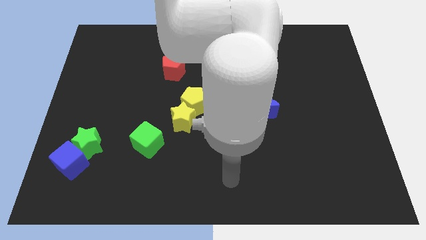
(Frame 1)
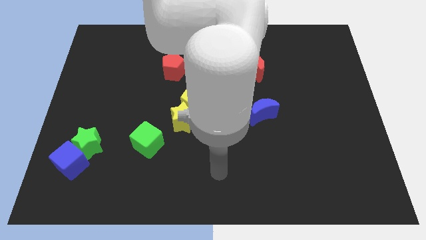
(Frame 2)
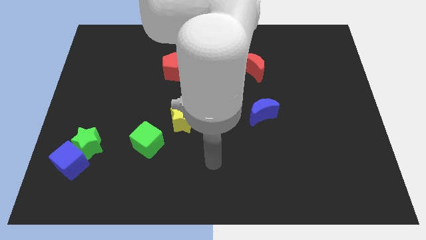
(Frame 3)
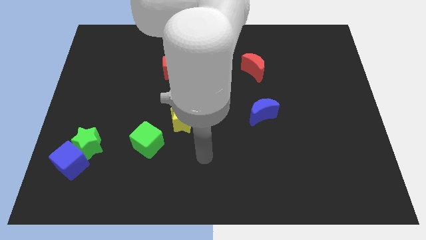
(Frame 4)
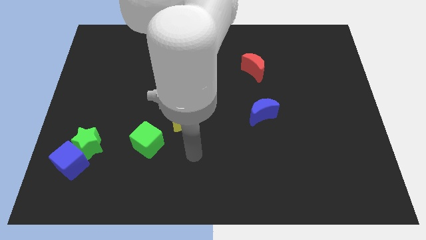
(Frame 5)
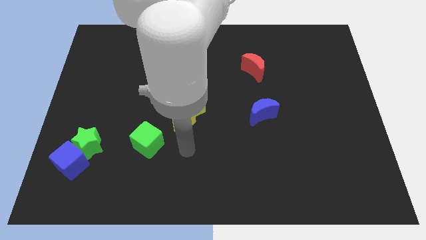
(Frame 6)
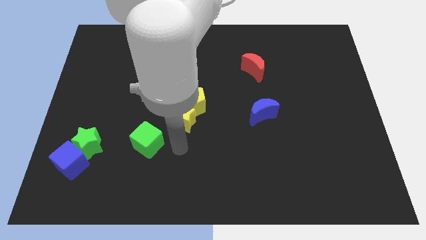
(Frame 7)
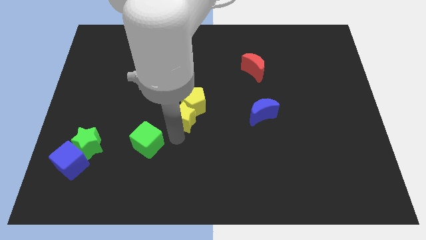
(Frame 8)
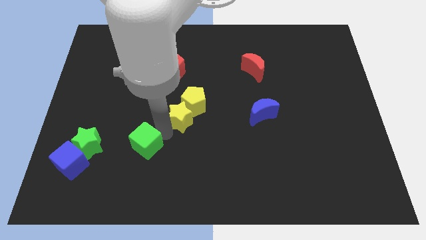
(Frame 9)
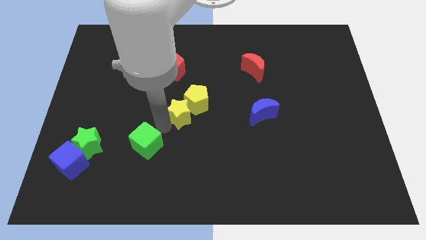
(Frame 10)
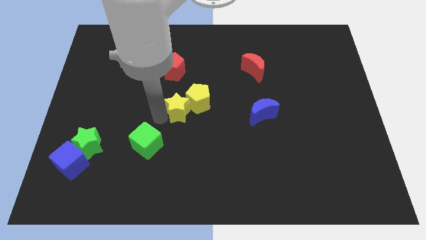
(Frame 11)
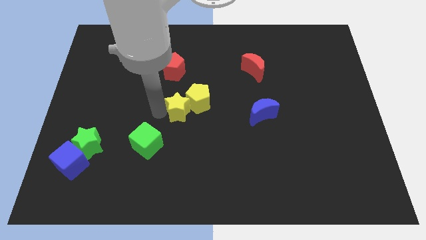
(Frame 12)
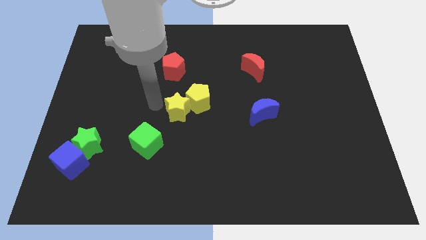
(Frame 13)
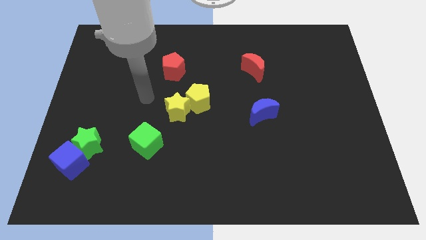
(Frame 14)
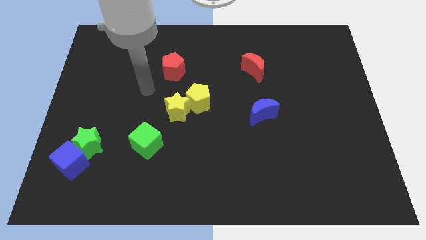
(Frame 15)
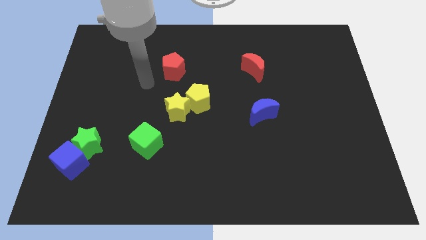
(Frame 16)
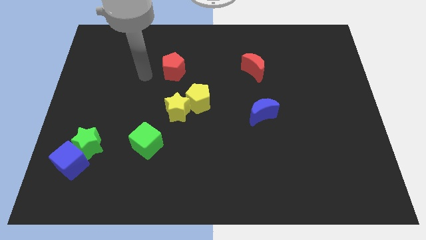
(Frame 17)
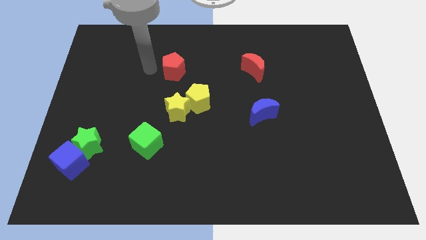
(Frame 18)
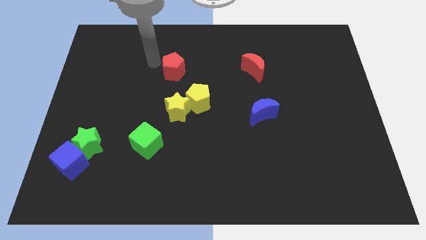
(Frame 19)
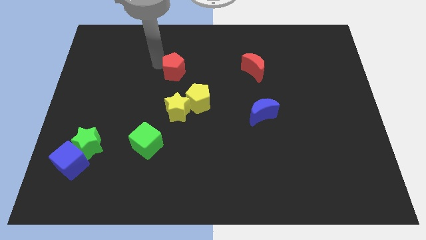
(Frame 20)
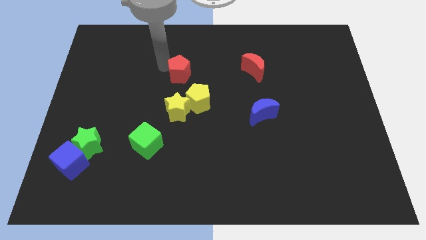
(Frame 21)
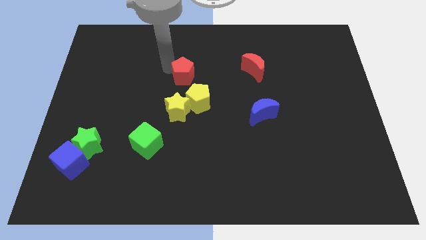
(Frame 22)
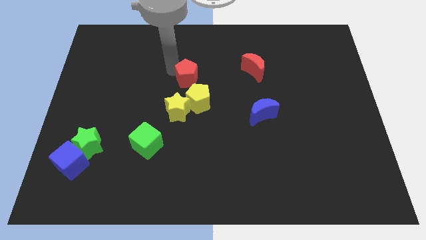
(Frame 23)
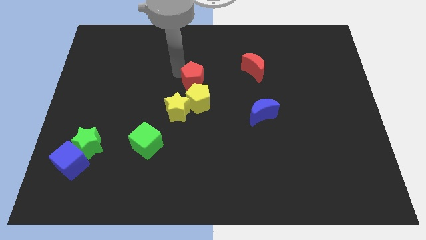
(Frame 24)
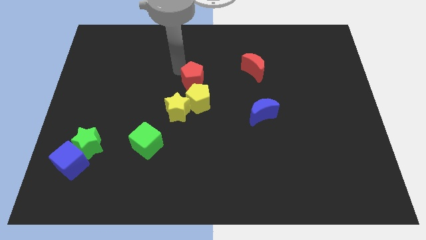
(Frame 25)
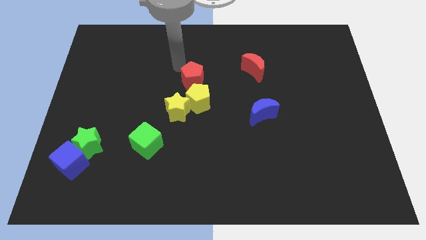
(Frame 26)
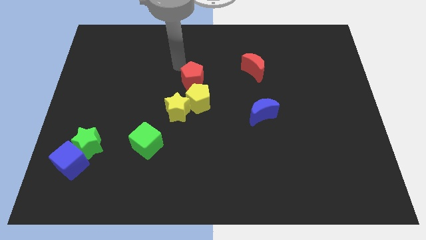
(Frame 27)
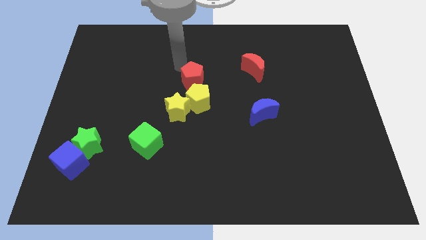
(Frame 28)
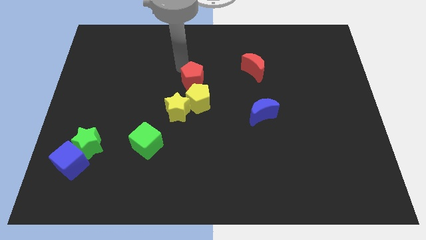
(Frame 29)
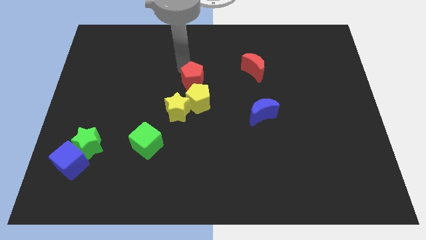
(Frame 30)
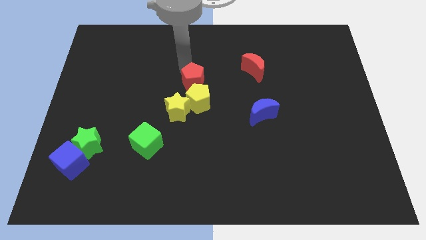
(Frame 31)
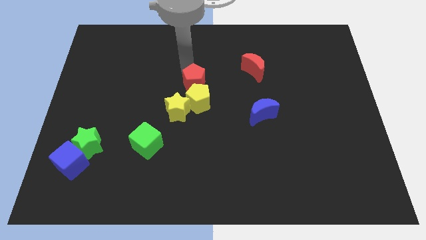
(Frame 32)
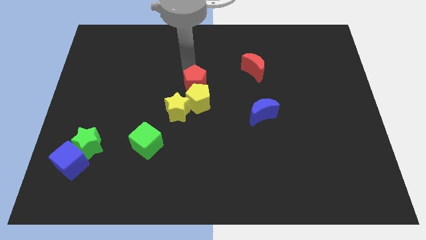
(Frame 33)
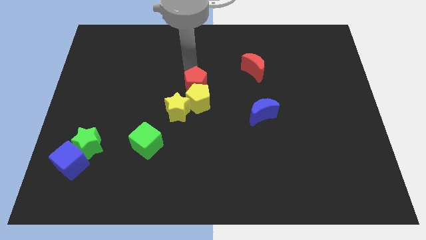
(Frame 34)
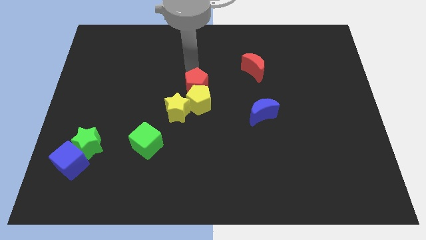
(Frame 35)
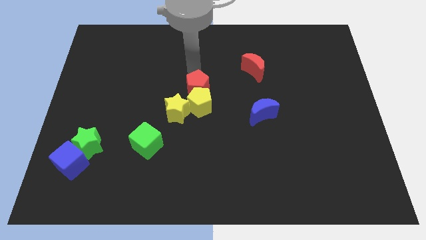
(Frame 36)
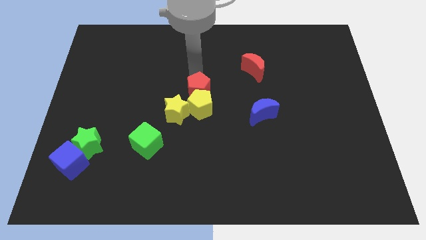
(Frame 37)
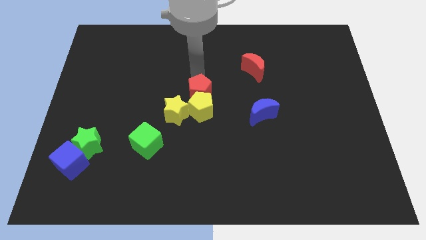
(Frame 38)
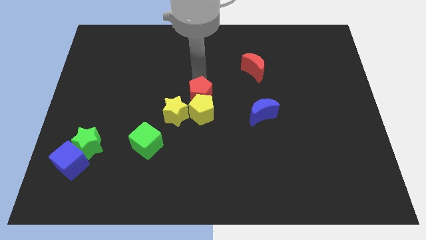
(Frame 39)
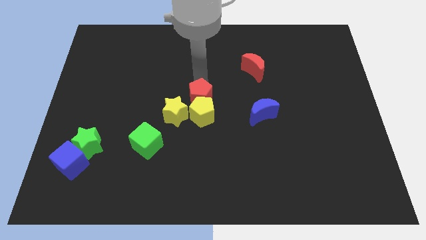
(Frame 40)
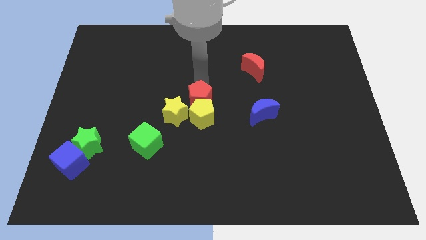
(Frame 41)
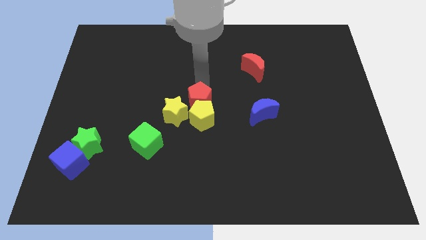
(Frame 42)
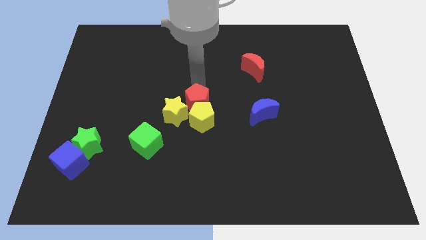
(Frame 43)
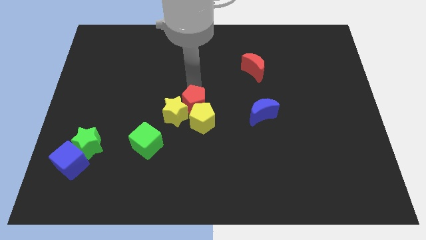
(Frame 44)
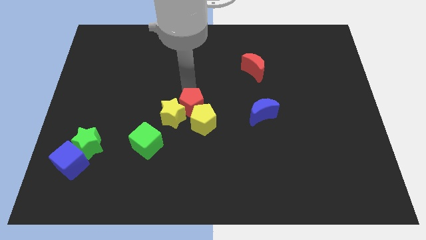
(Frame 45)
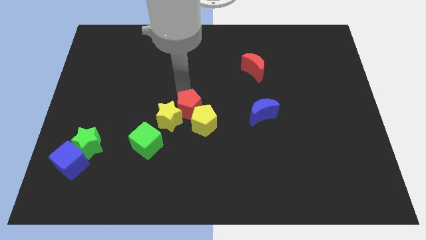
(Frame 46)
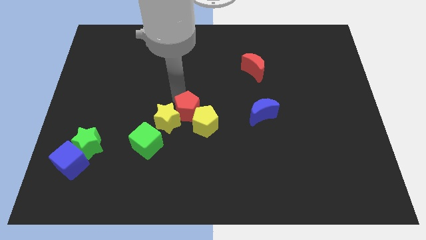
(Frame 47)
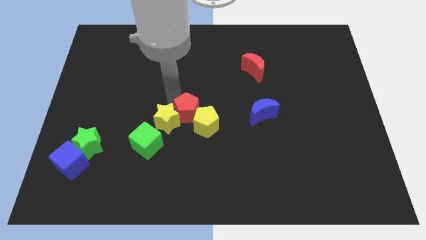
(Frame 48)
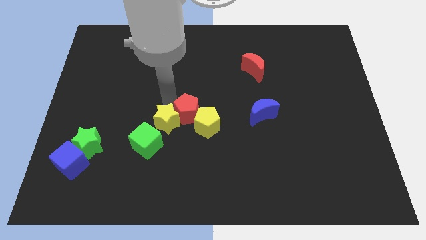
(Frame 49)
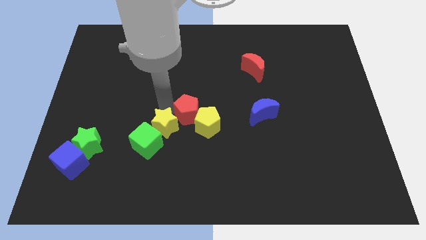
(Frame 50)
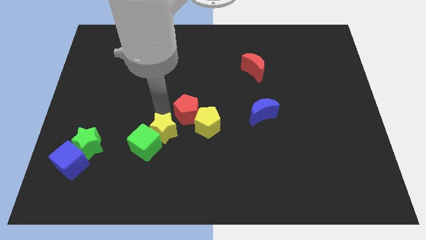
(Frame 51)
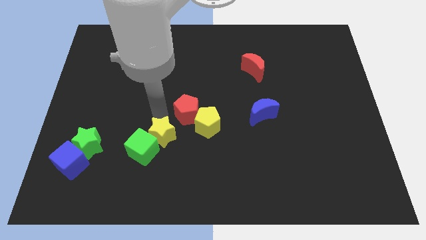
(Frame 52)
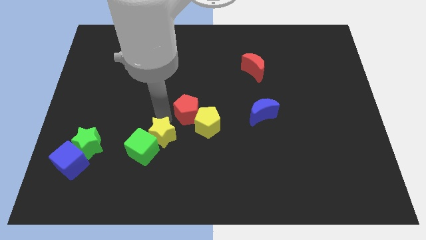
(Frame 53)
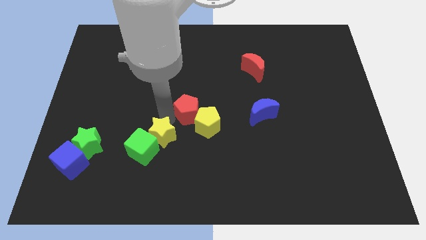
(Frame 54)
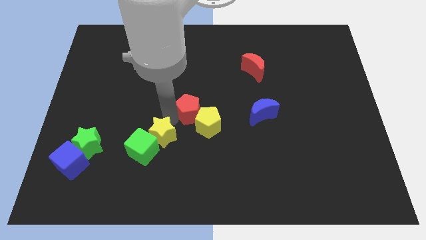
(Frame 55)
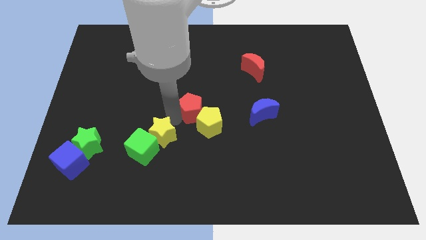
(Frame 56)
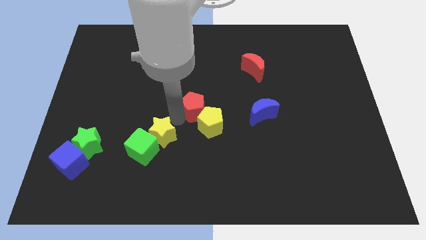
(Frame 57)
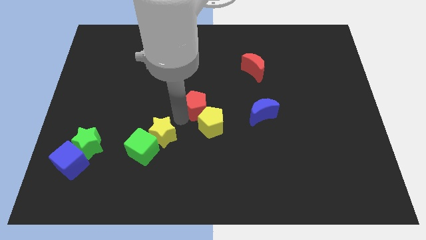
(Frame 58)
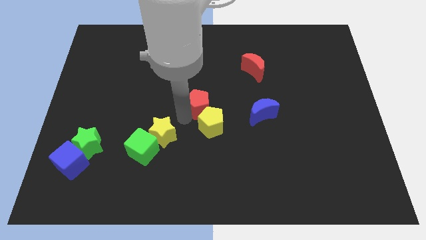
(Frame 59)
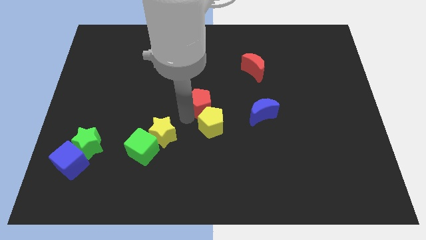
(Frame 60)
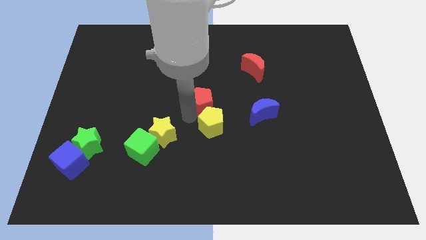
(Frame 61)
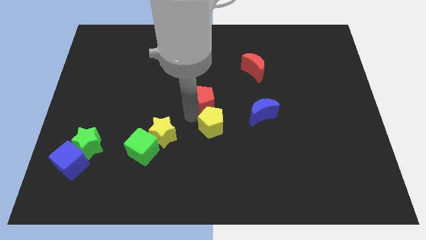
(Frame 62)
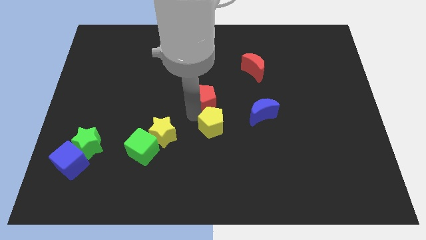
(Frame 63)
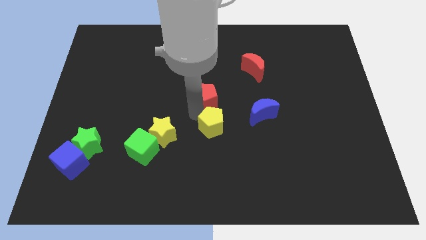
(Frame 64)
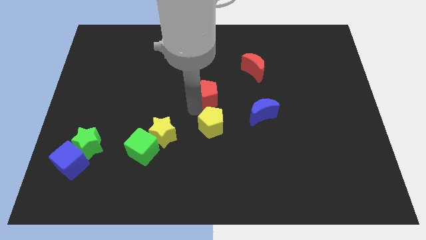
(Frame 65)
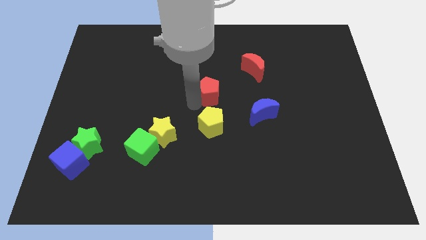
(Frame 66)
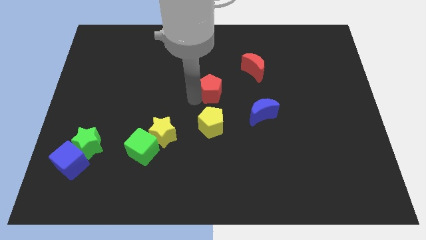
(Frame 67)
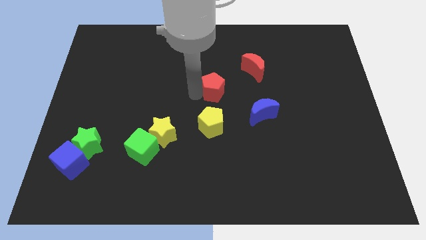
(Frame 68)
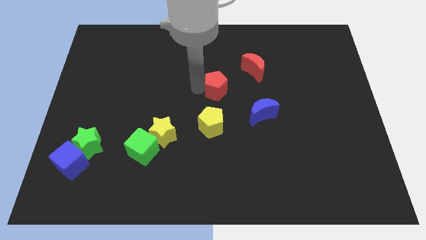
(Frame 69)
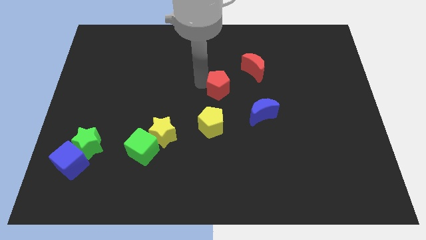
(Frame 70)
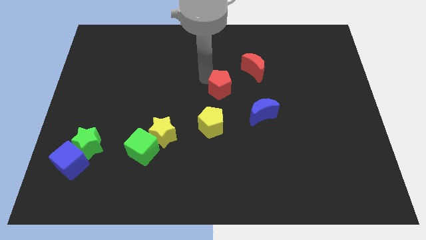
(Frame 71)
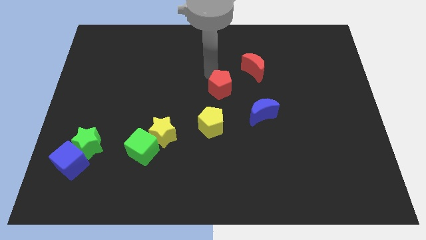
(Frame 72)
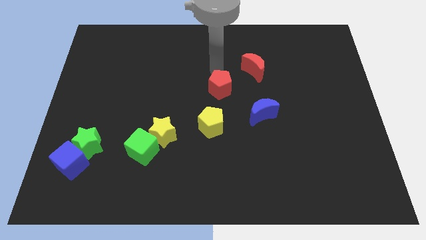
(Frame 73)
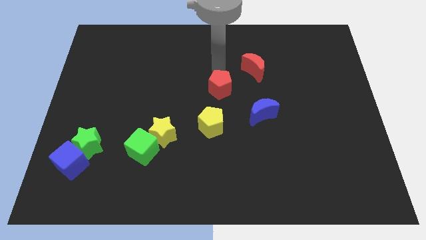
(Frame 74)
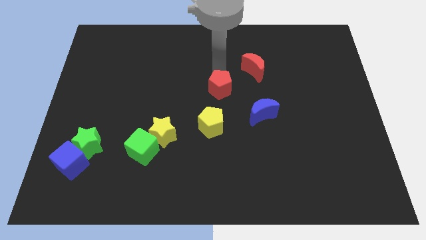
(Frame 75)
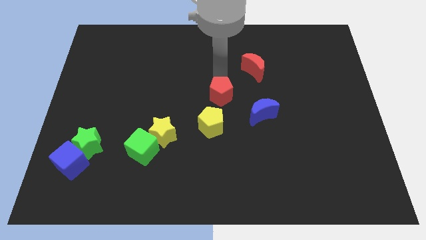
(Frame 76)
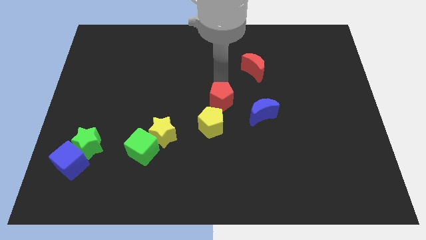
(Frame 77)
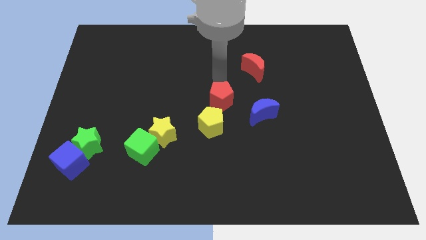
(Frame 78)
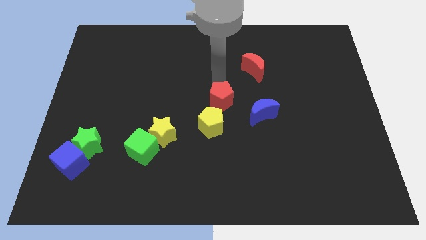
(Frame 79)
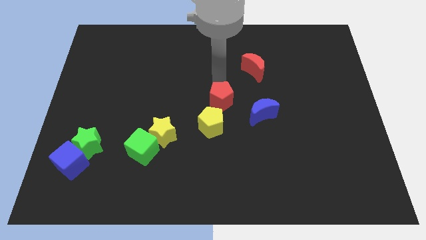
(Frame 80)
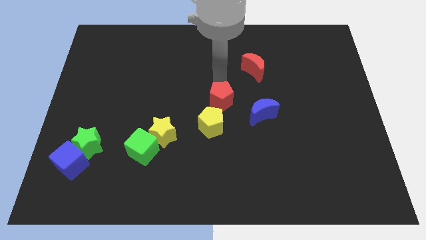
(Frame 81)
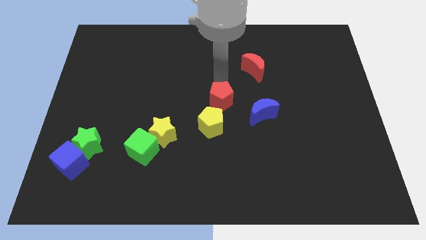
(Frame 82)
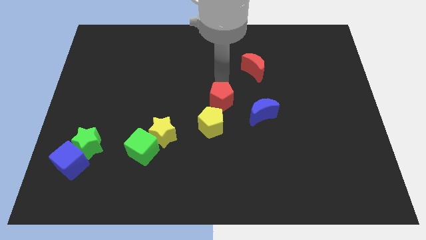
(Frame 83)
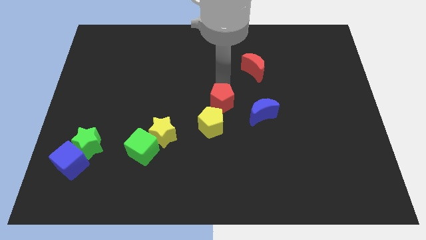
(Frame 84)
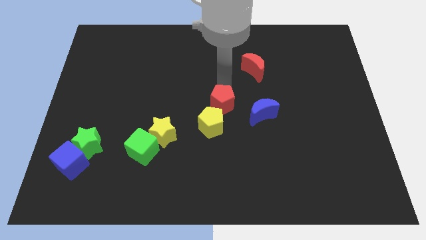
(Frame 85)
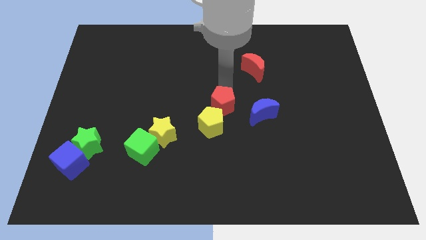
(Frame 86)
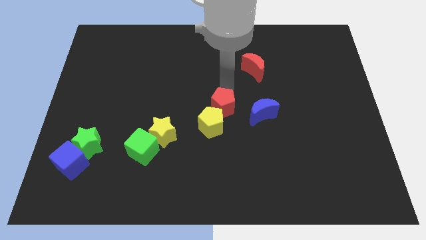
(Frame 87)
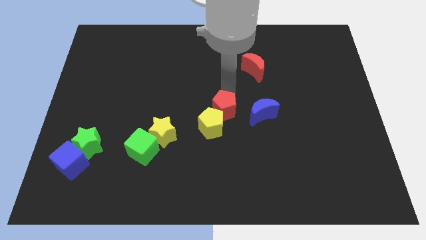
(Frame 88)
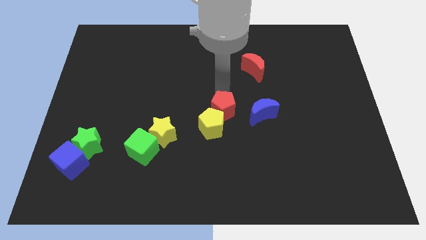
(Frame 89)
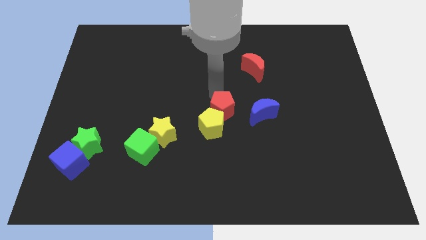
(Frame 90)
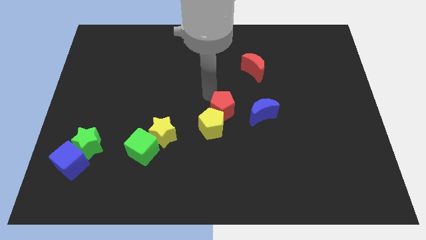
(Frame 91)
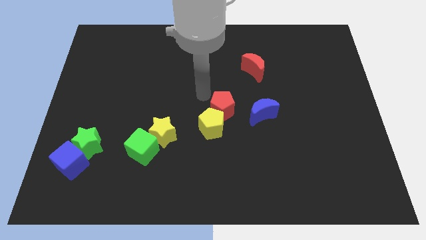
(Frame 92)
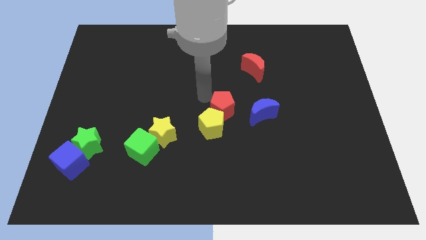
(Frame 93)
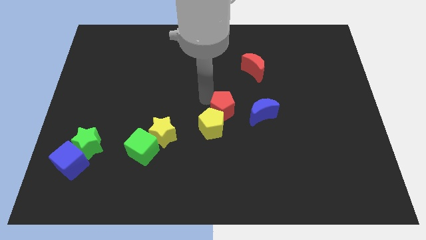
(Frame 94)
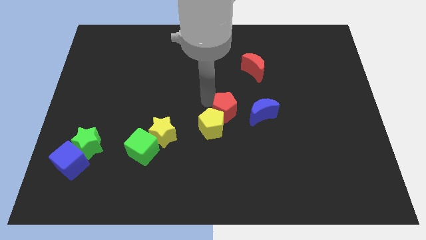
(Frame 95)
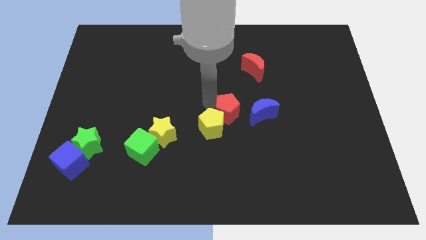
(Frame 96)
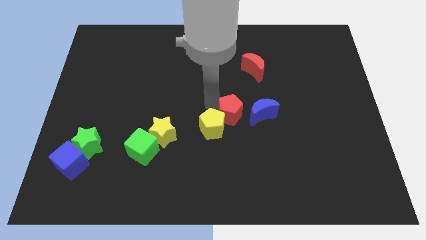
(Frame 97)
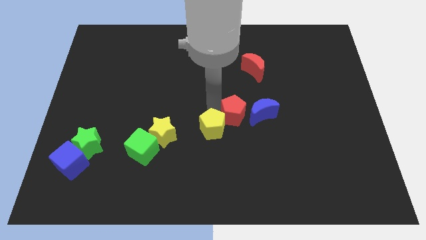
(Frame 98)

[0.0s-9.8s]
push the red pentagon downwards and then right
